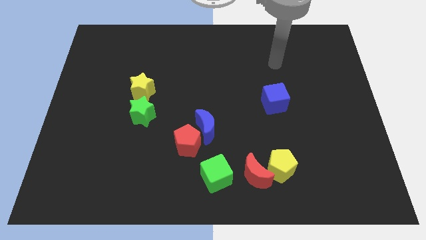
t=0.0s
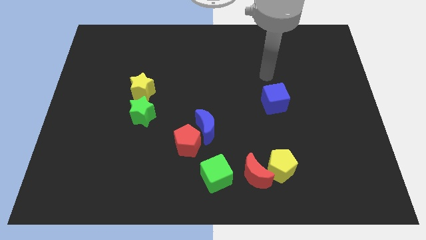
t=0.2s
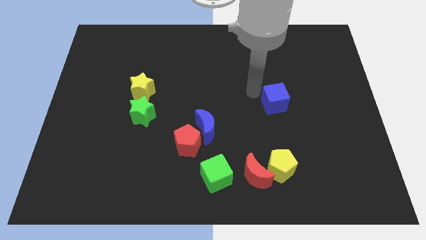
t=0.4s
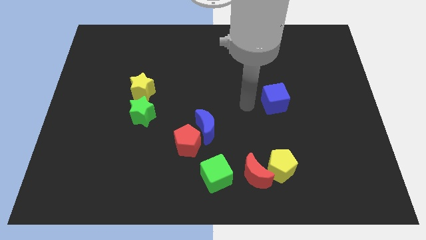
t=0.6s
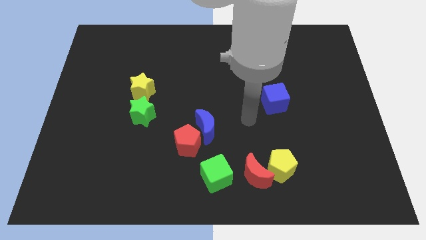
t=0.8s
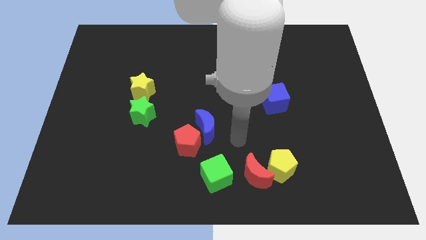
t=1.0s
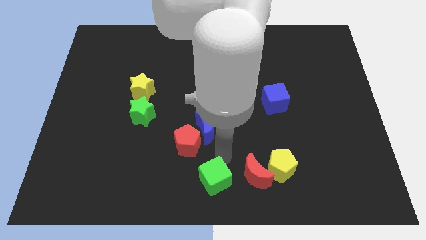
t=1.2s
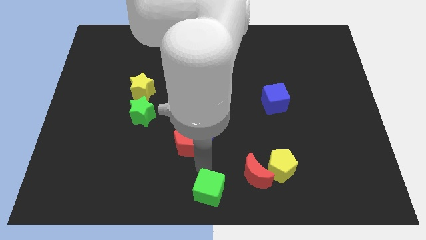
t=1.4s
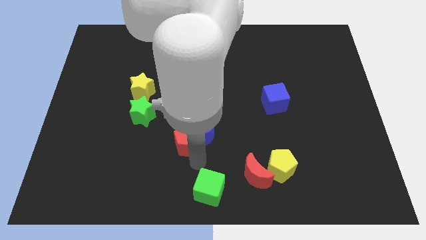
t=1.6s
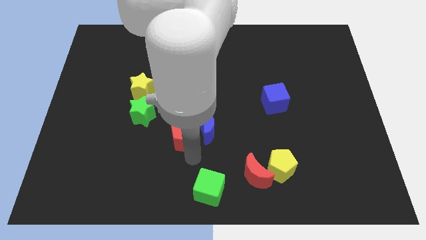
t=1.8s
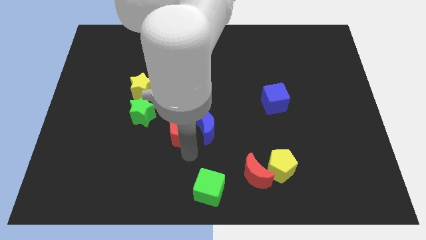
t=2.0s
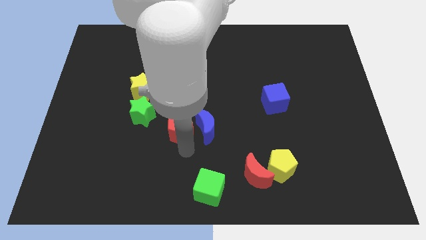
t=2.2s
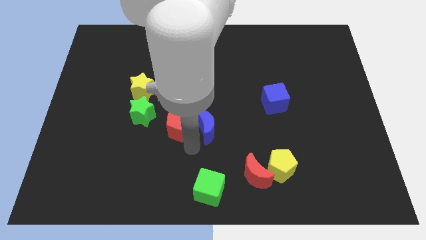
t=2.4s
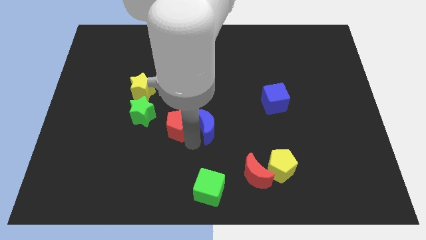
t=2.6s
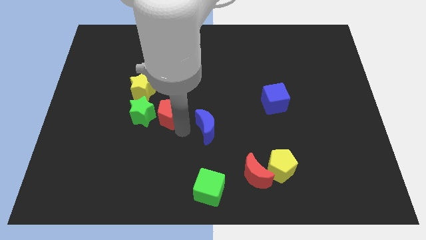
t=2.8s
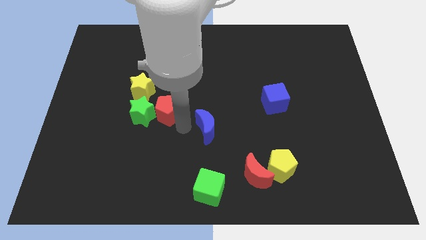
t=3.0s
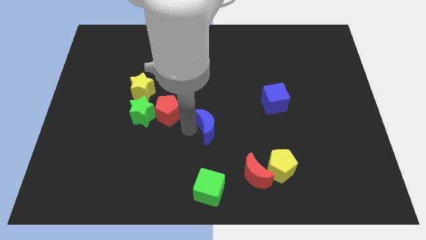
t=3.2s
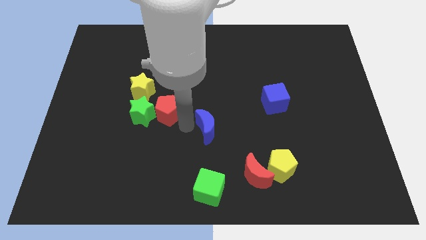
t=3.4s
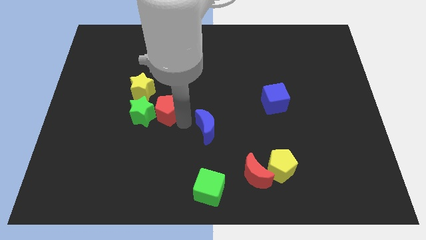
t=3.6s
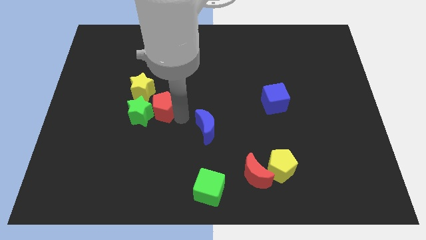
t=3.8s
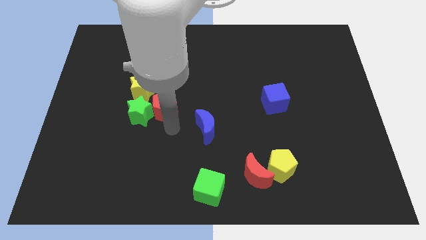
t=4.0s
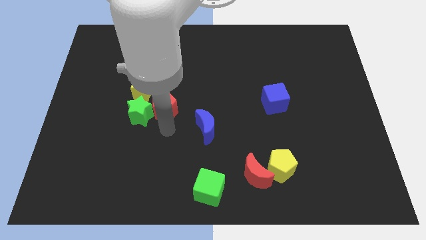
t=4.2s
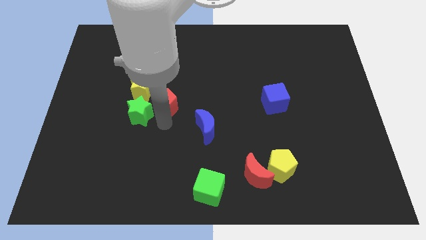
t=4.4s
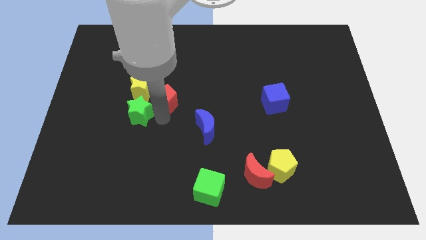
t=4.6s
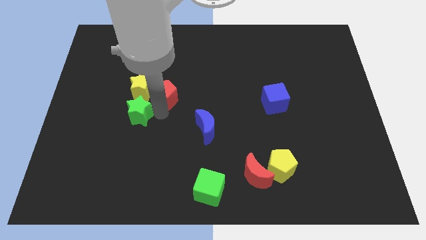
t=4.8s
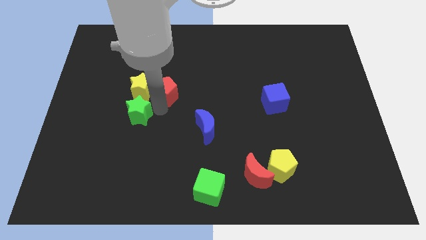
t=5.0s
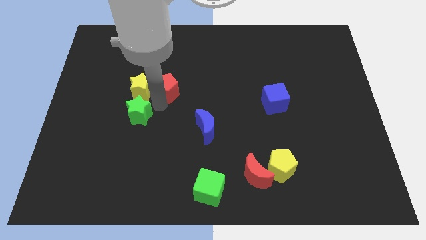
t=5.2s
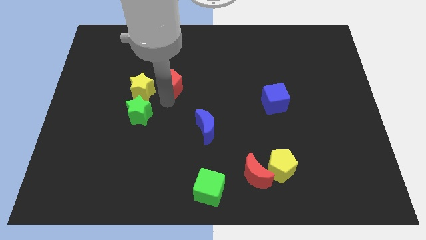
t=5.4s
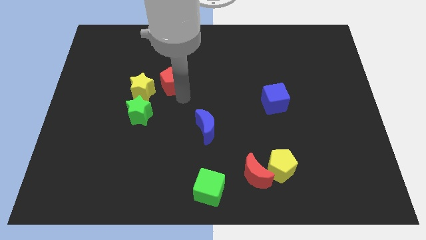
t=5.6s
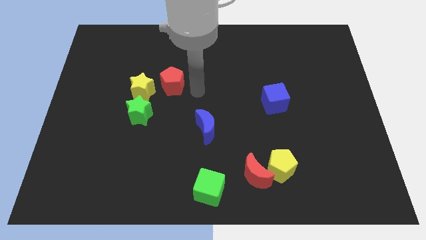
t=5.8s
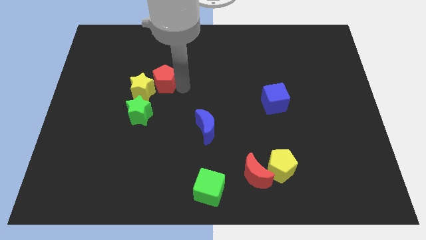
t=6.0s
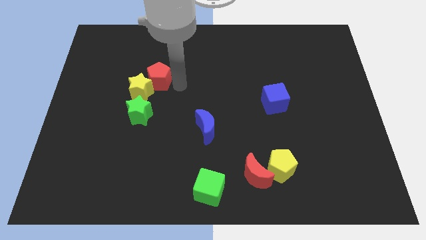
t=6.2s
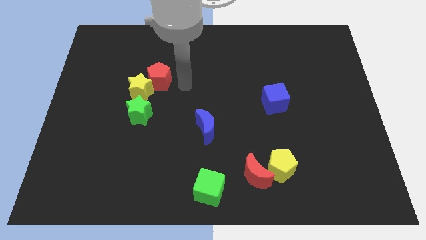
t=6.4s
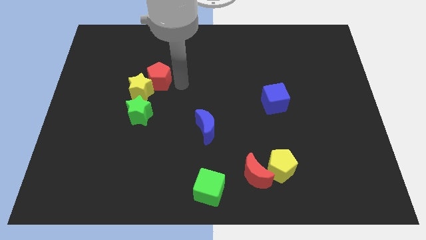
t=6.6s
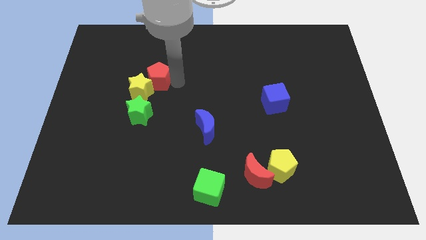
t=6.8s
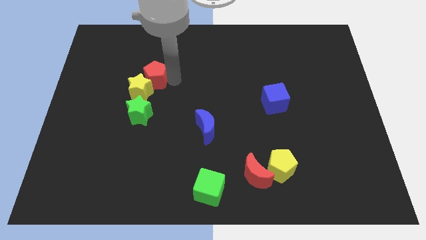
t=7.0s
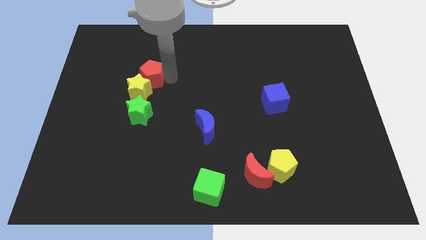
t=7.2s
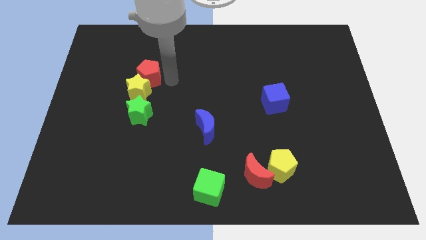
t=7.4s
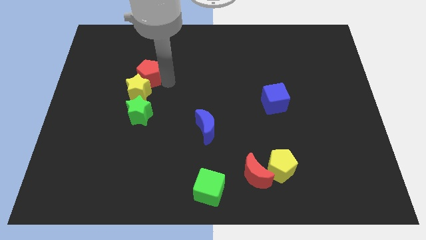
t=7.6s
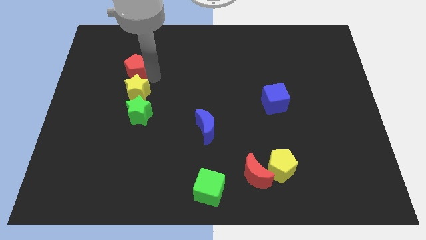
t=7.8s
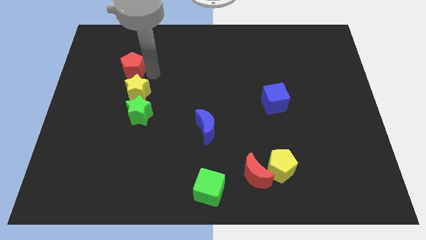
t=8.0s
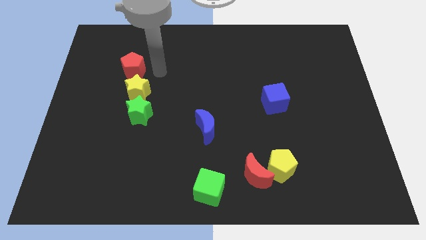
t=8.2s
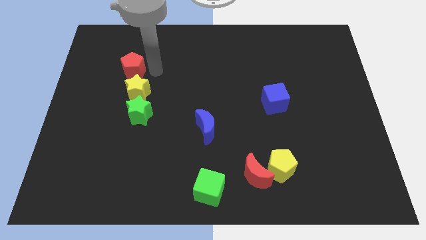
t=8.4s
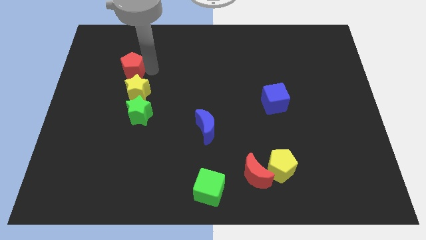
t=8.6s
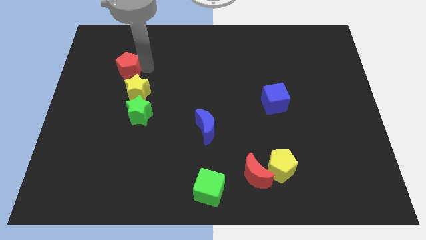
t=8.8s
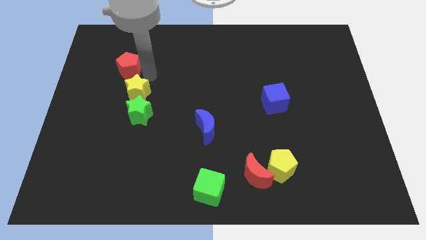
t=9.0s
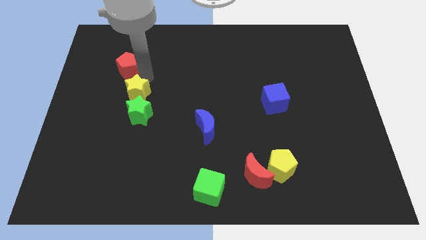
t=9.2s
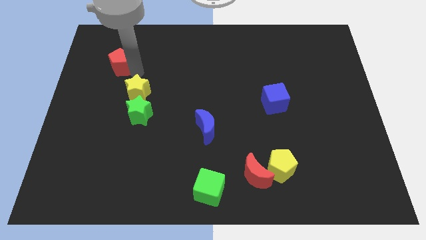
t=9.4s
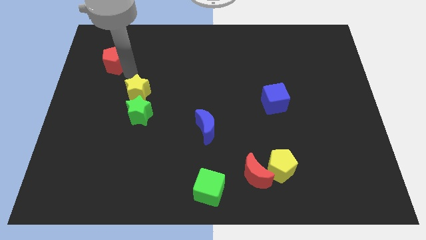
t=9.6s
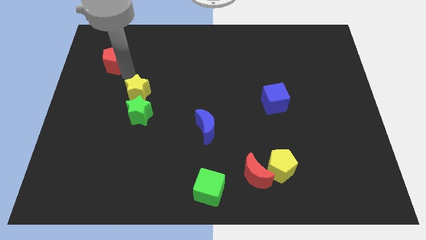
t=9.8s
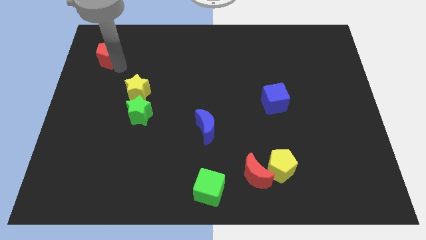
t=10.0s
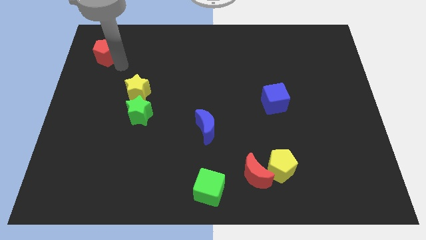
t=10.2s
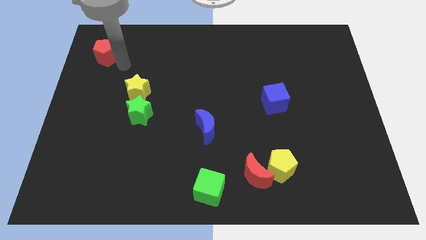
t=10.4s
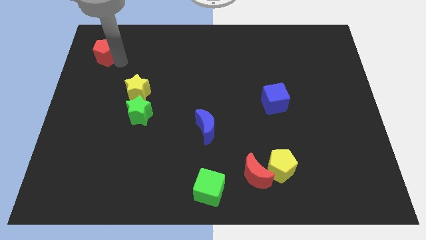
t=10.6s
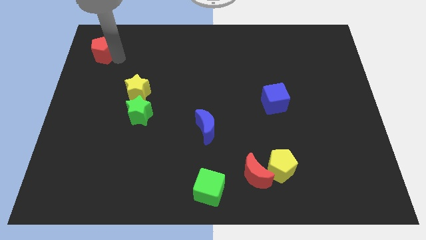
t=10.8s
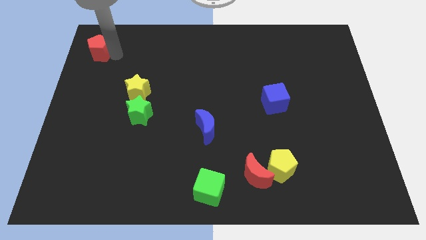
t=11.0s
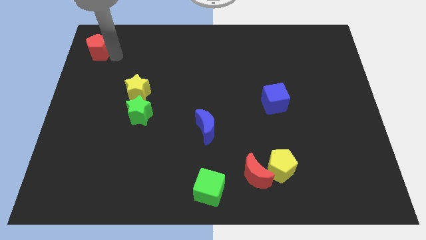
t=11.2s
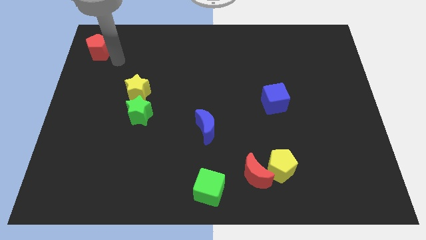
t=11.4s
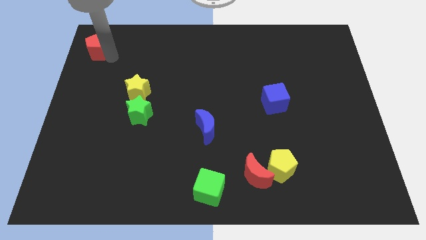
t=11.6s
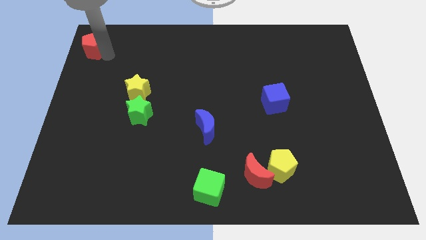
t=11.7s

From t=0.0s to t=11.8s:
move the red pentagon to the upper left corner

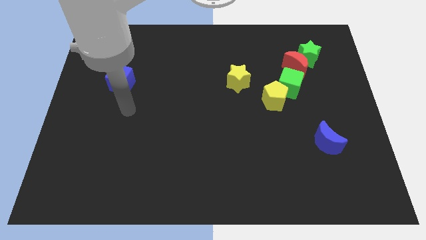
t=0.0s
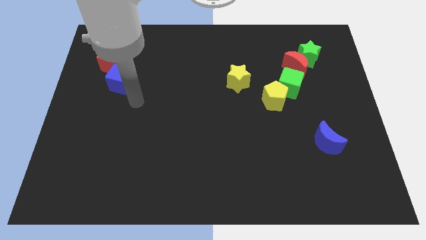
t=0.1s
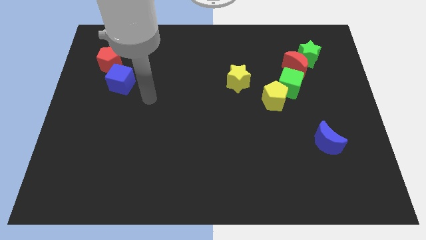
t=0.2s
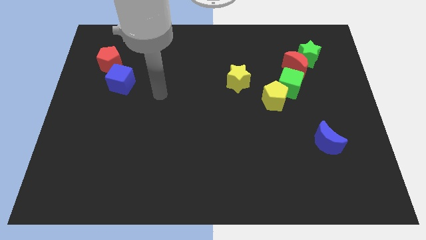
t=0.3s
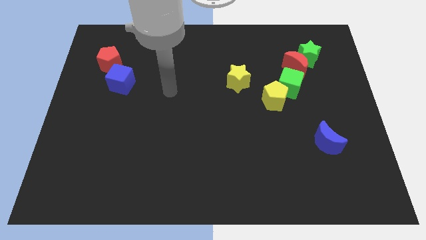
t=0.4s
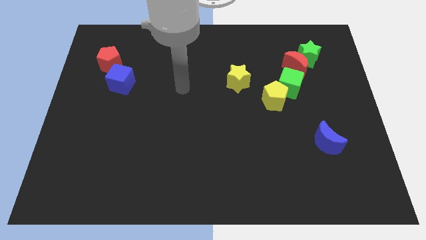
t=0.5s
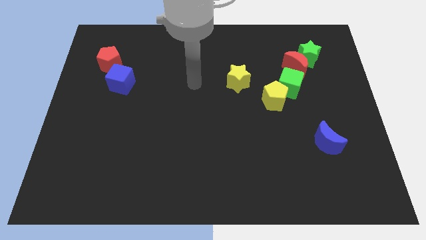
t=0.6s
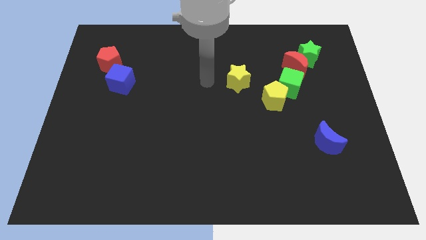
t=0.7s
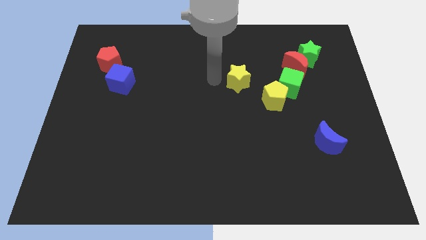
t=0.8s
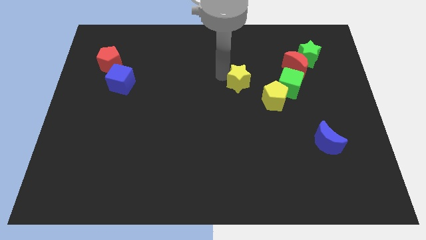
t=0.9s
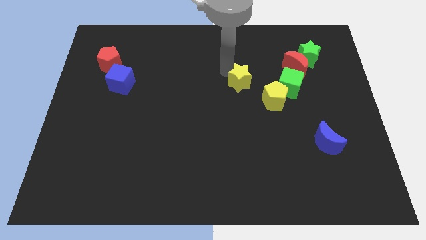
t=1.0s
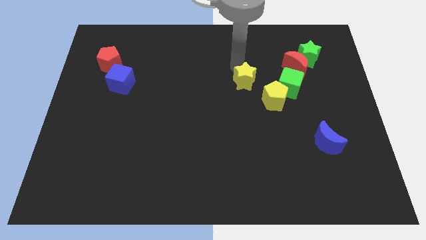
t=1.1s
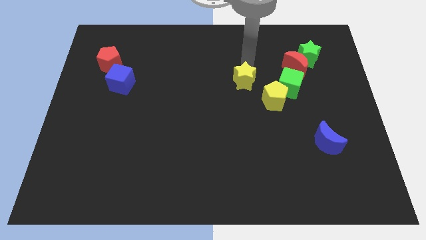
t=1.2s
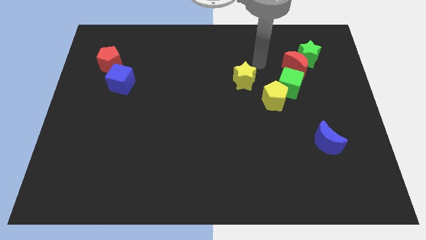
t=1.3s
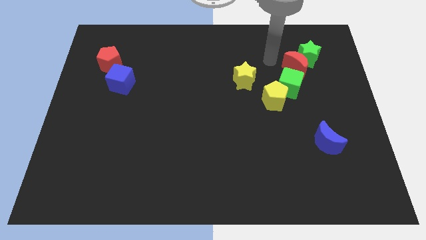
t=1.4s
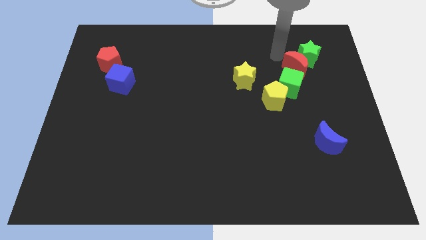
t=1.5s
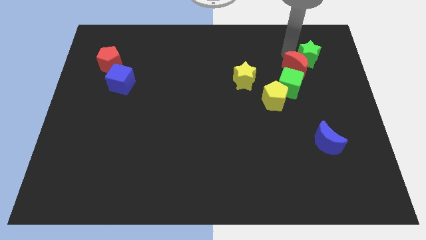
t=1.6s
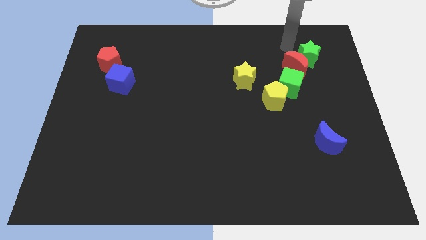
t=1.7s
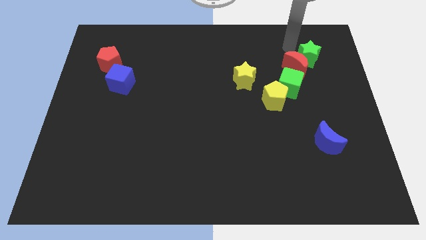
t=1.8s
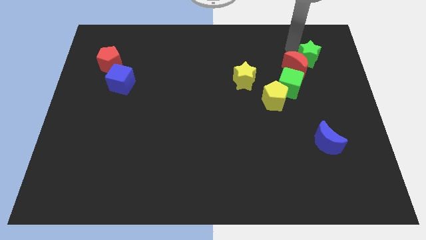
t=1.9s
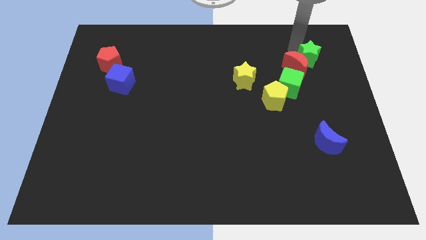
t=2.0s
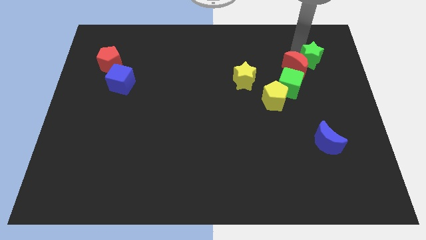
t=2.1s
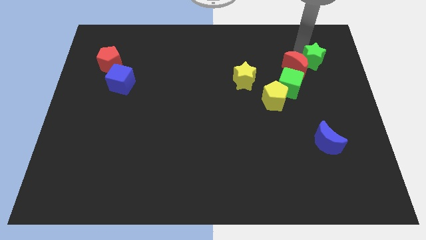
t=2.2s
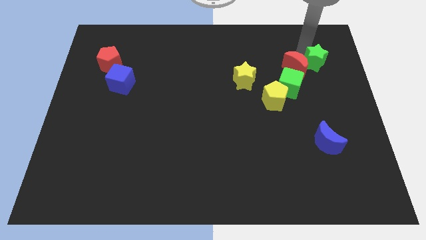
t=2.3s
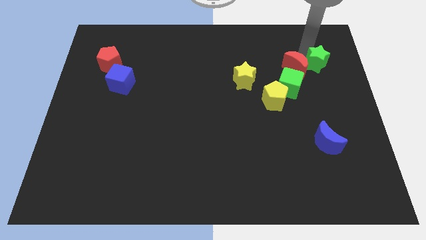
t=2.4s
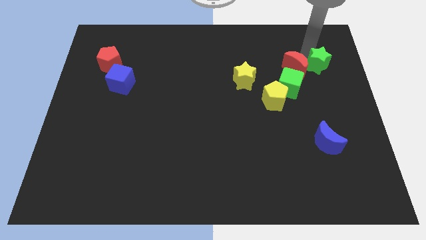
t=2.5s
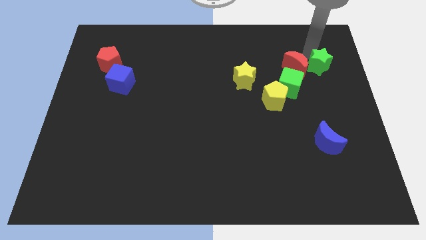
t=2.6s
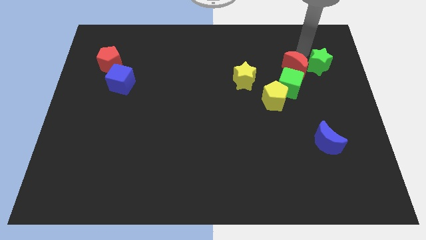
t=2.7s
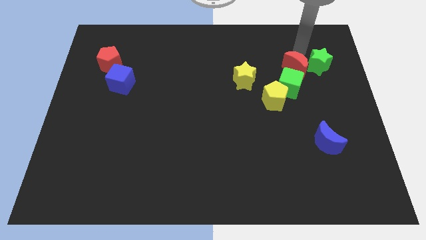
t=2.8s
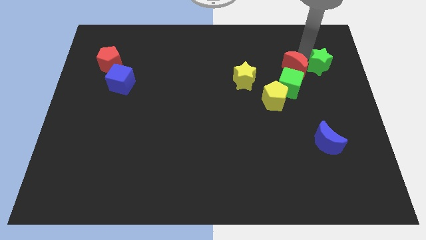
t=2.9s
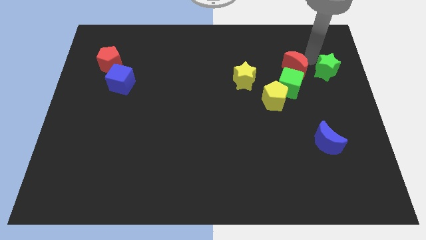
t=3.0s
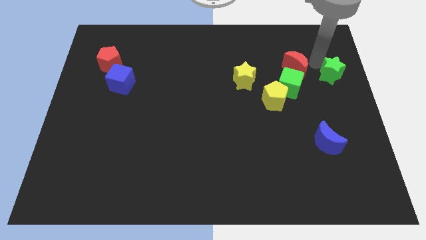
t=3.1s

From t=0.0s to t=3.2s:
slide the green star to the right side
